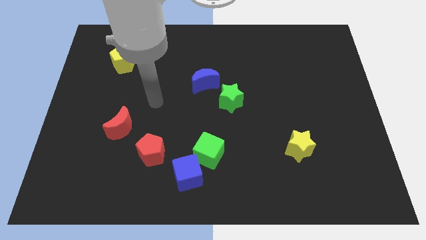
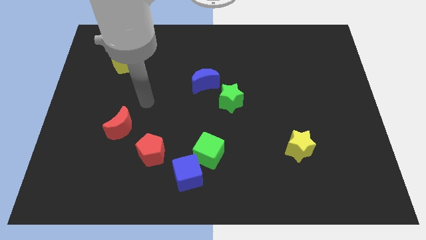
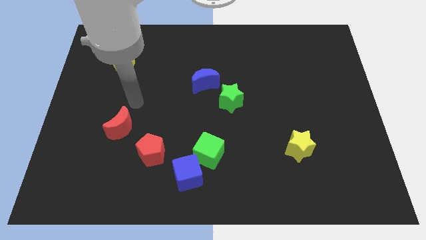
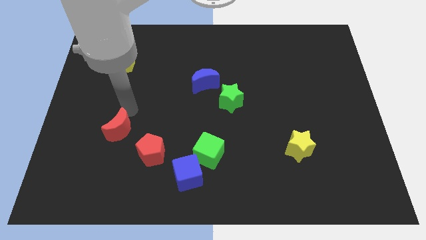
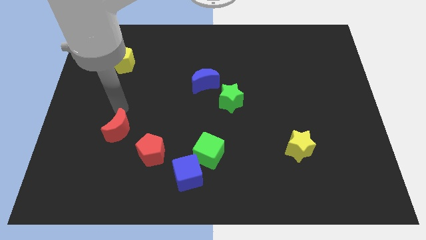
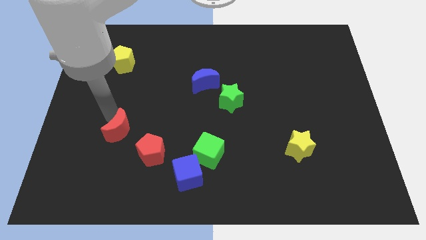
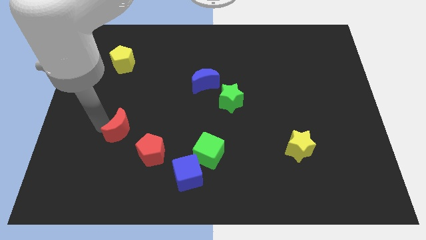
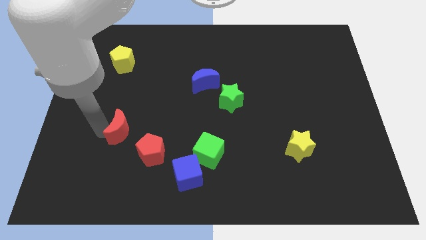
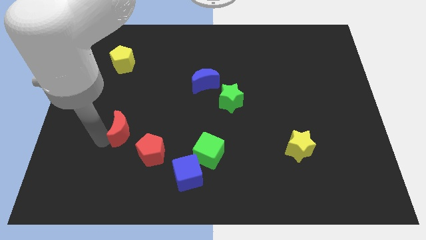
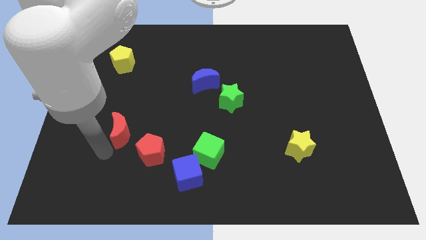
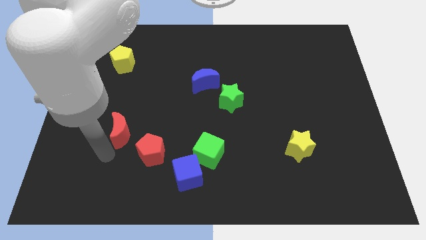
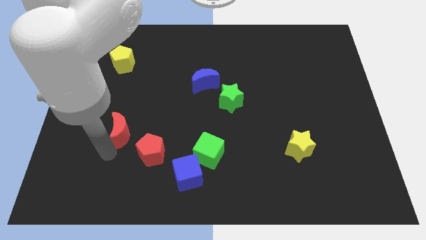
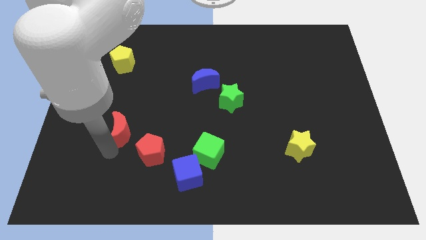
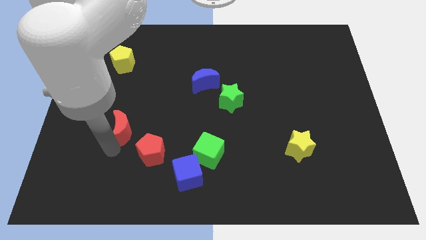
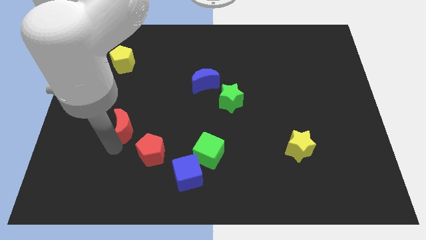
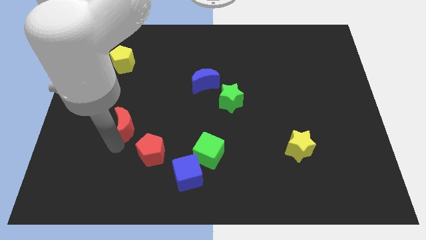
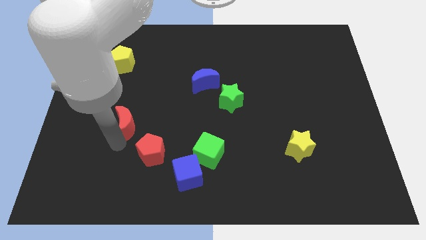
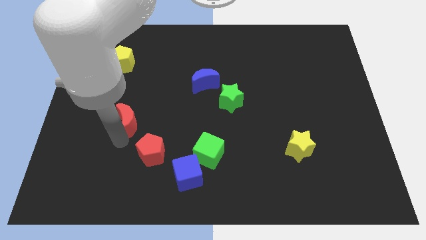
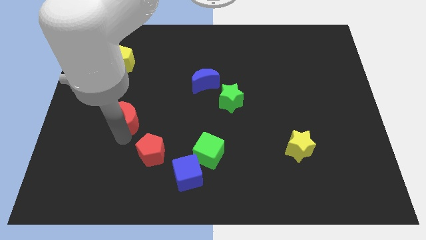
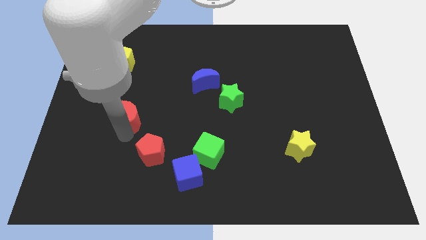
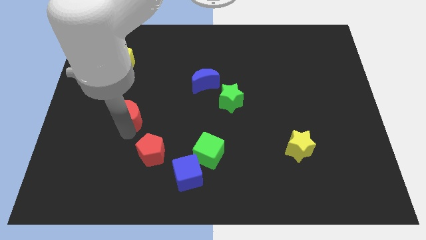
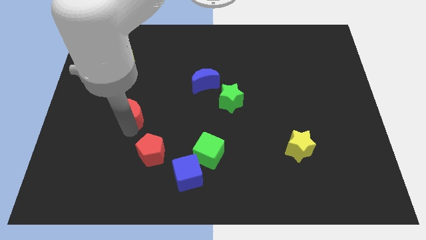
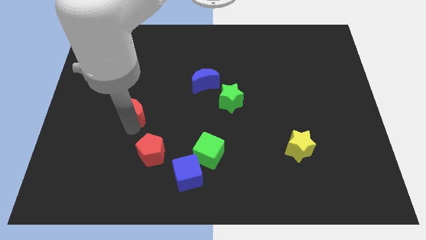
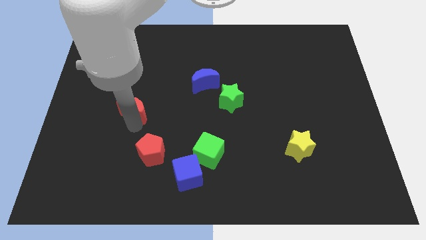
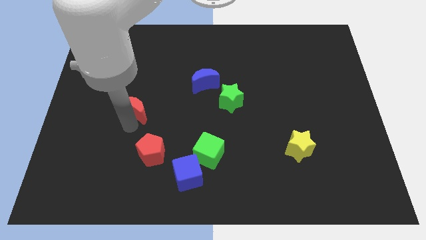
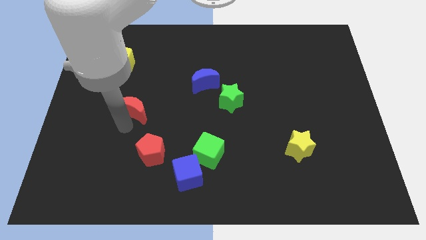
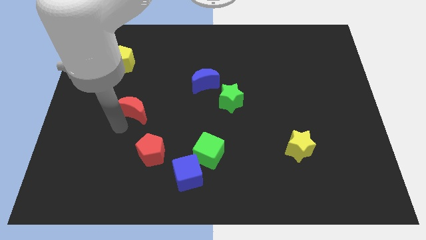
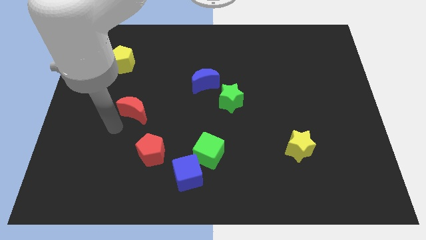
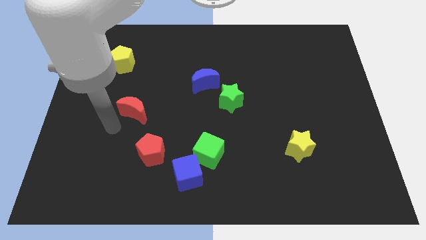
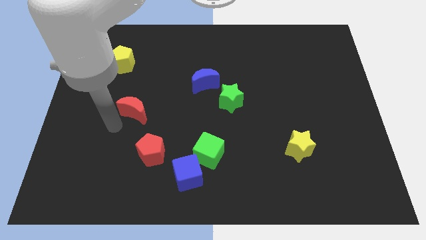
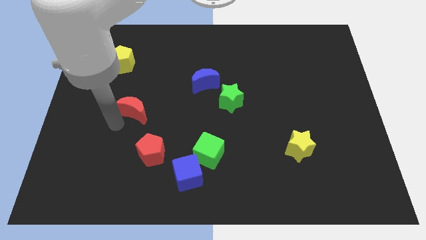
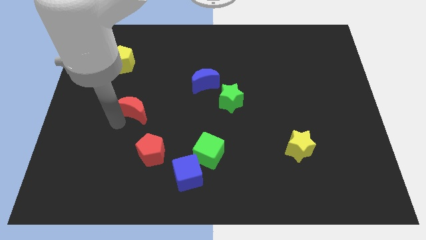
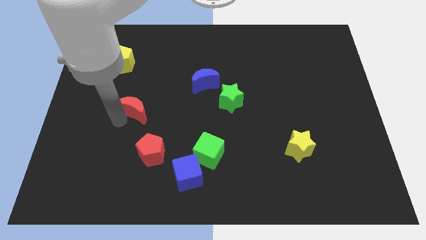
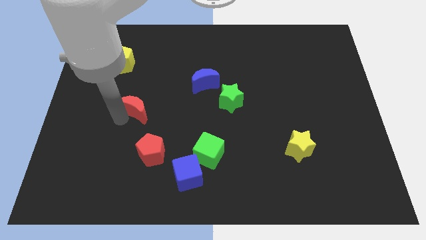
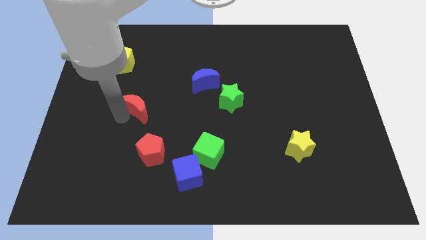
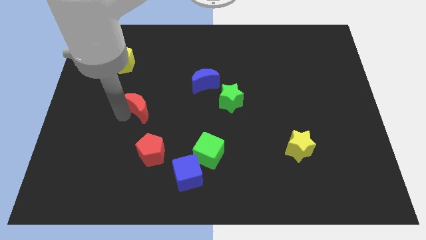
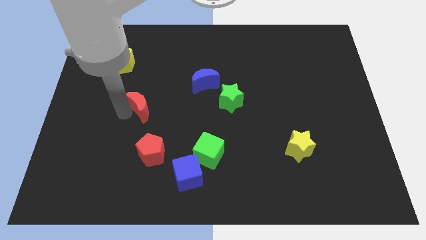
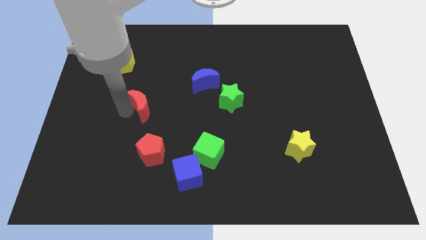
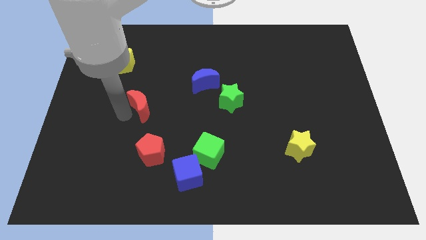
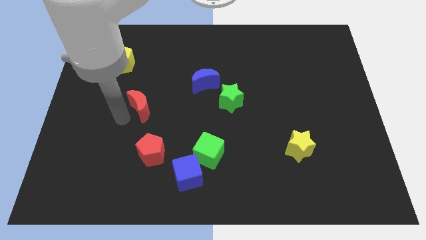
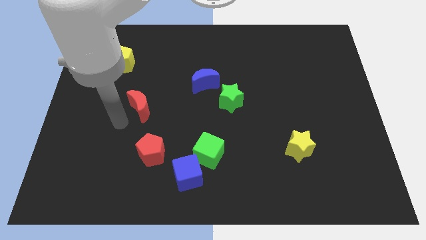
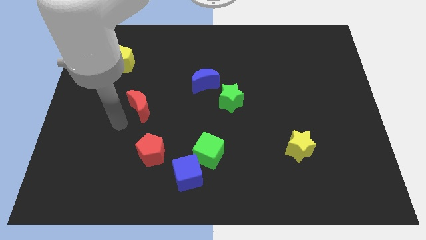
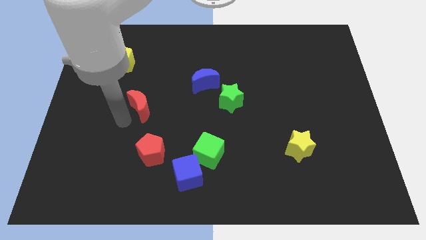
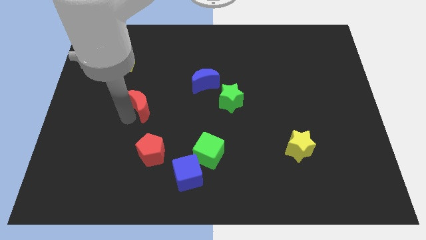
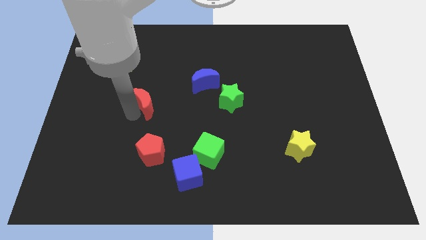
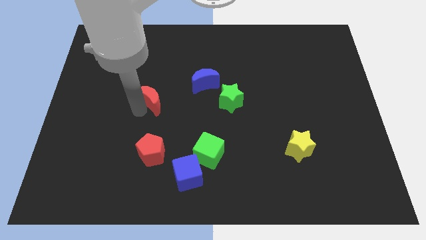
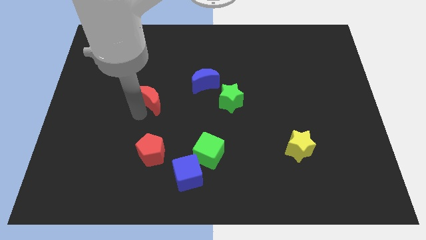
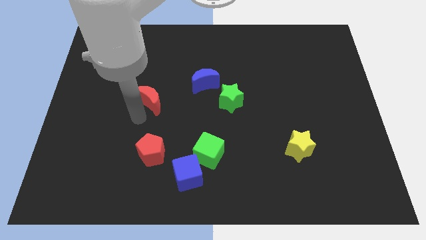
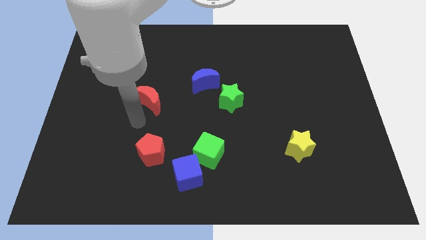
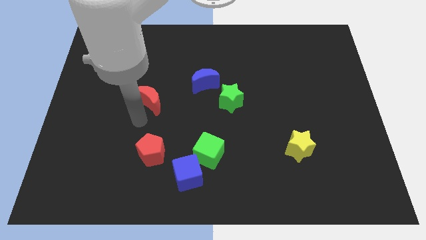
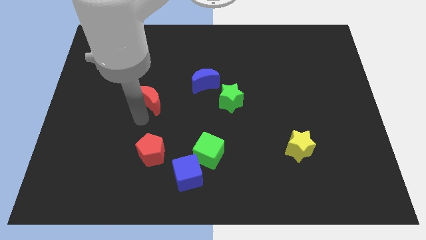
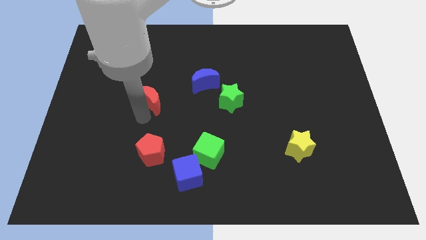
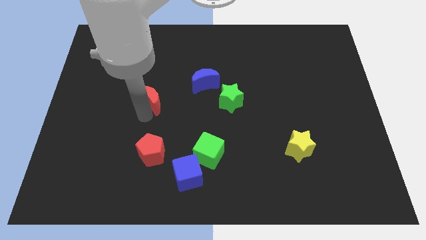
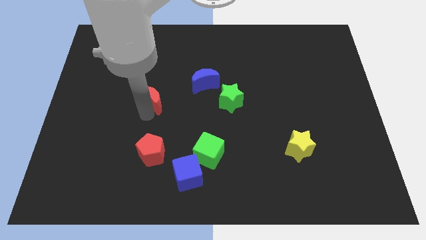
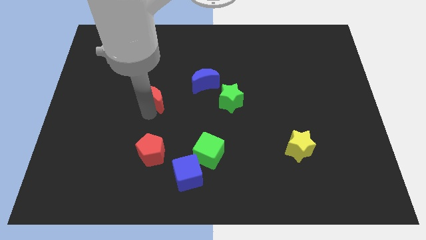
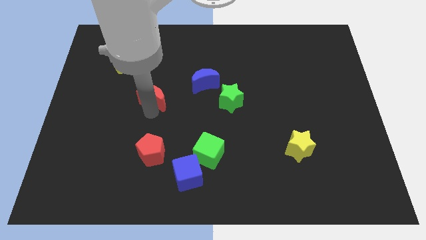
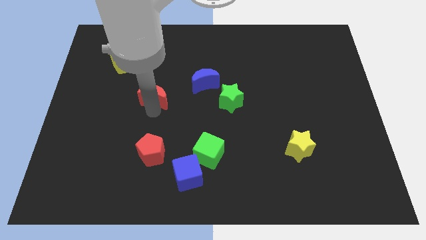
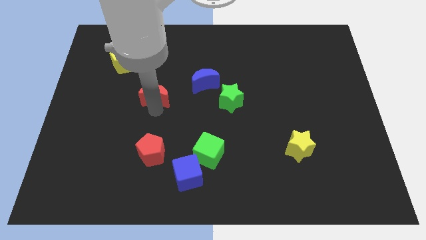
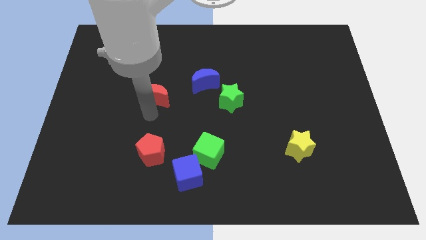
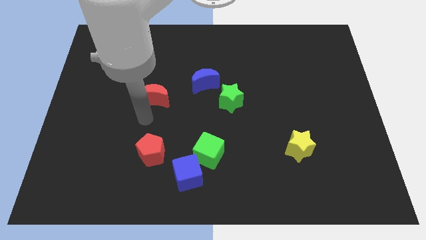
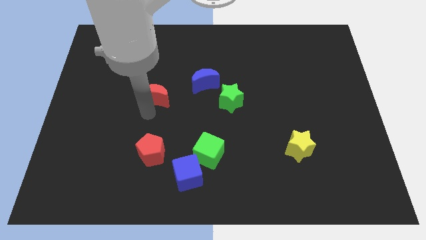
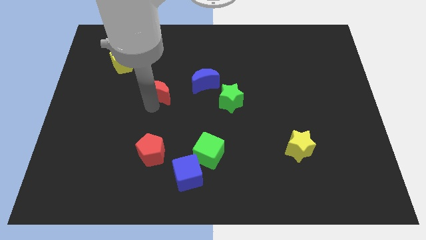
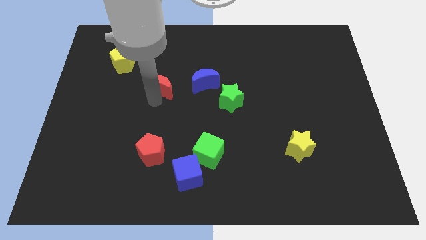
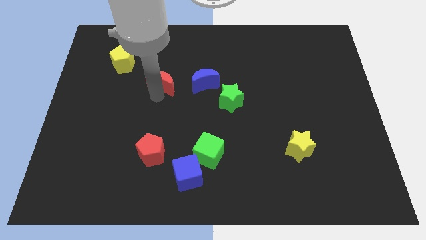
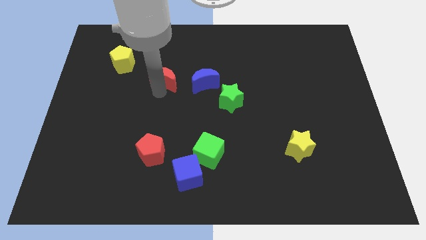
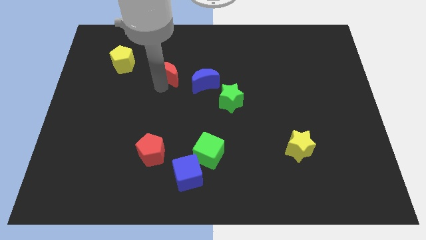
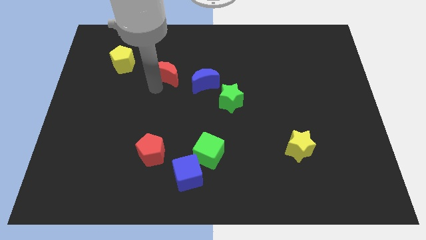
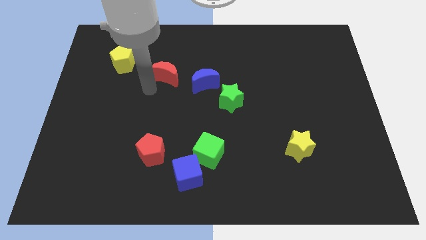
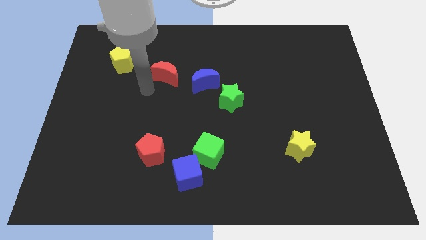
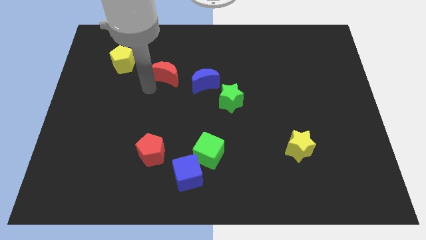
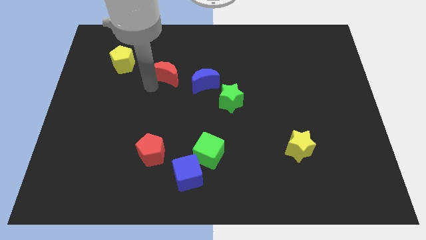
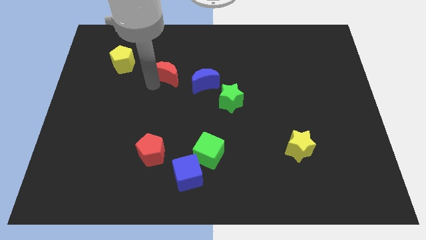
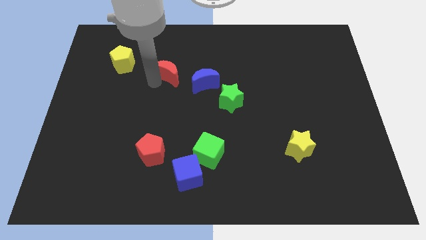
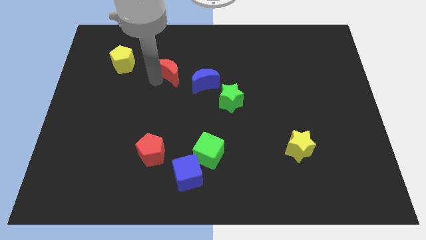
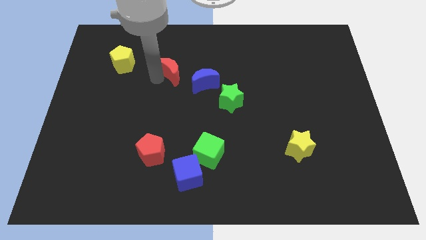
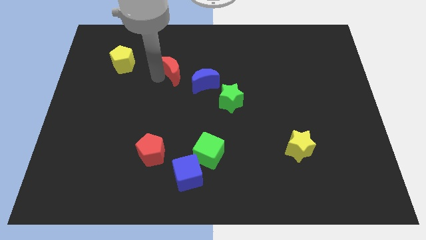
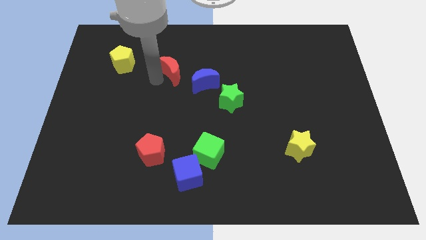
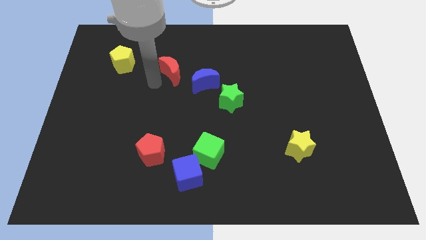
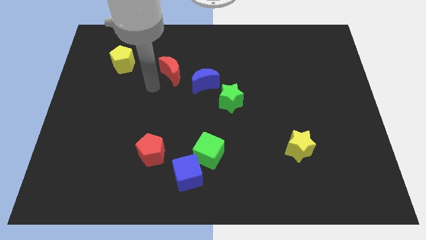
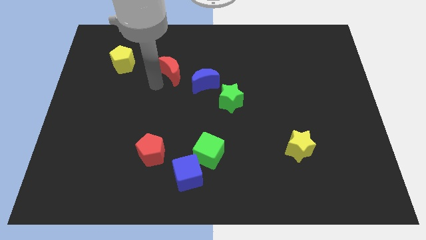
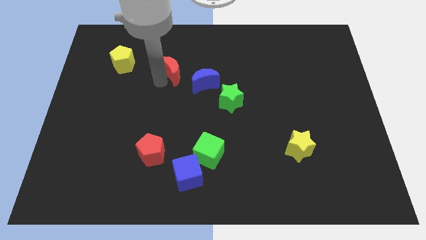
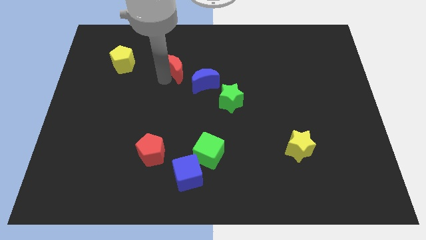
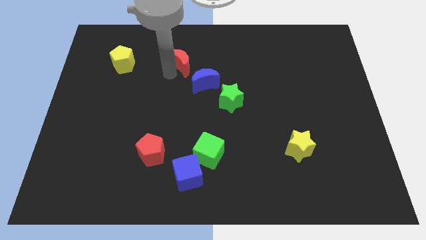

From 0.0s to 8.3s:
move the red moon upwards and right
